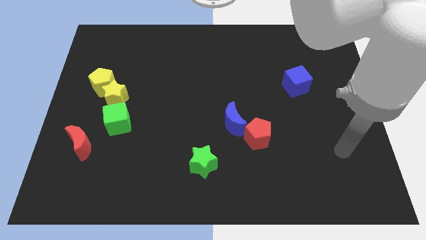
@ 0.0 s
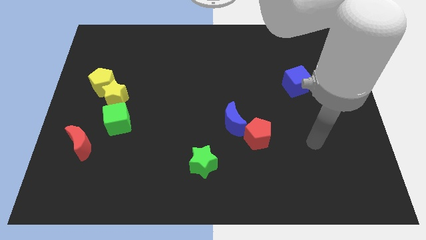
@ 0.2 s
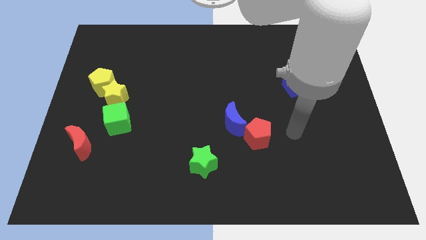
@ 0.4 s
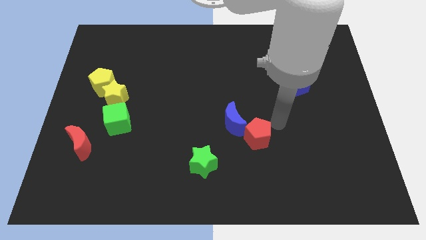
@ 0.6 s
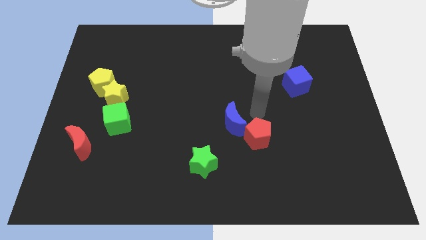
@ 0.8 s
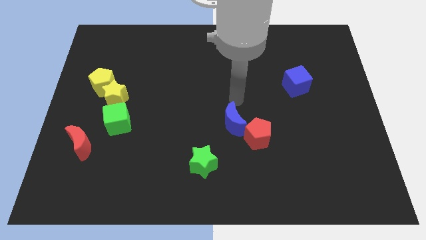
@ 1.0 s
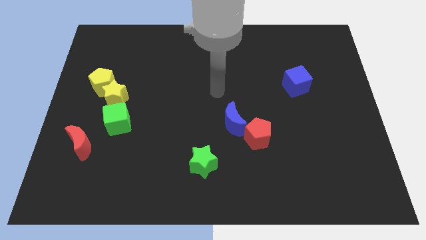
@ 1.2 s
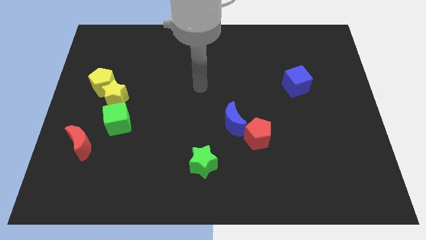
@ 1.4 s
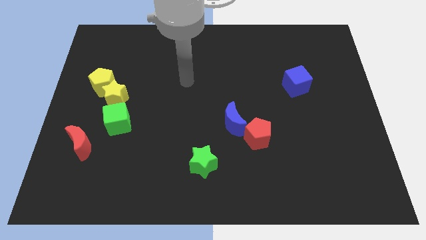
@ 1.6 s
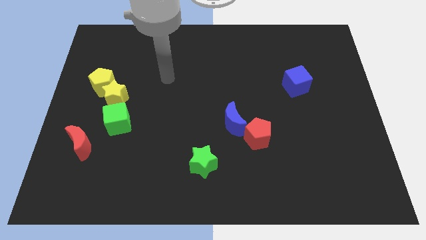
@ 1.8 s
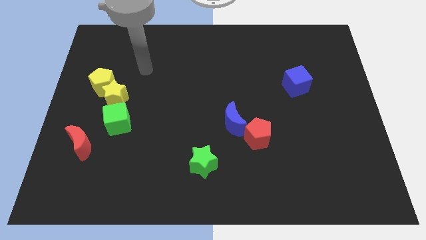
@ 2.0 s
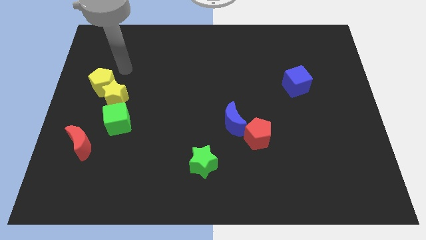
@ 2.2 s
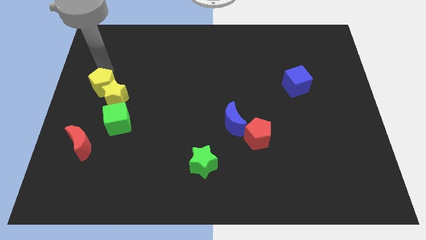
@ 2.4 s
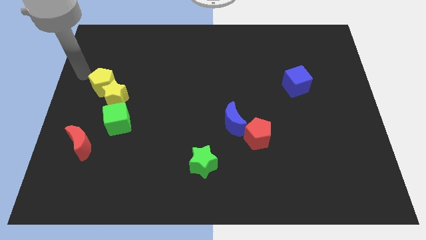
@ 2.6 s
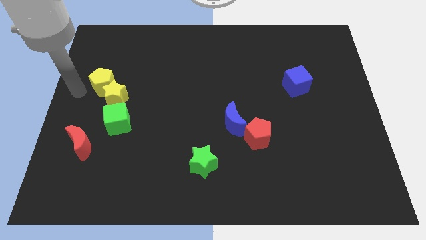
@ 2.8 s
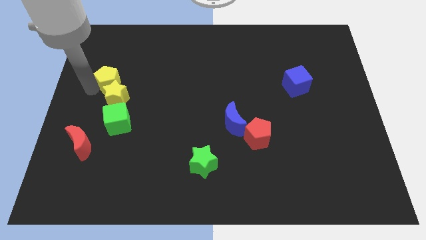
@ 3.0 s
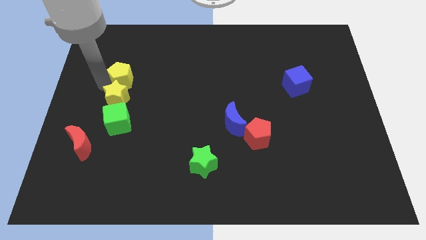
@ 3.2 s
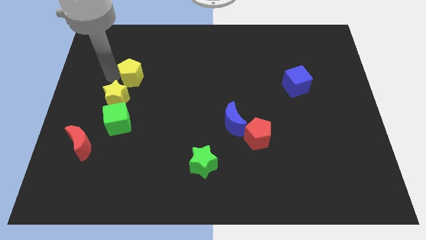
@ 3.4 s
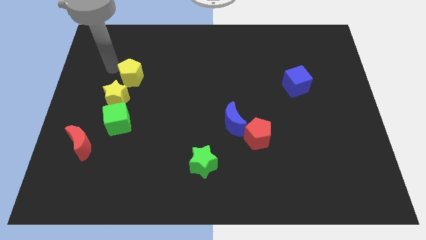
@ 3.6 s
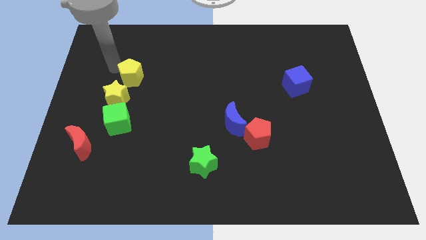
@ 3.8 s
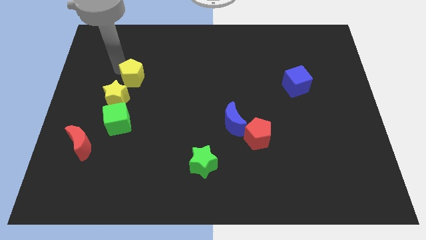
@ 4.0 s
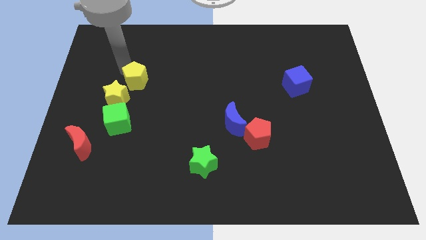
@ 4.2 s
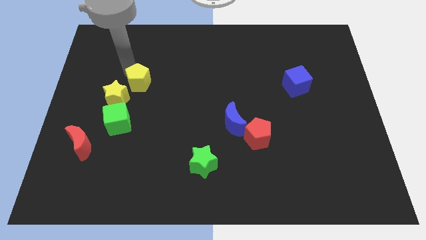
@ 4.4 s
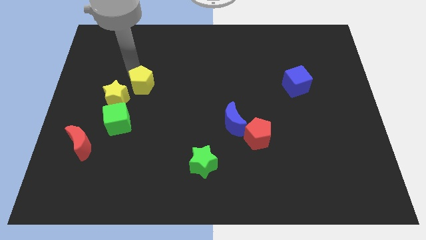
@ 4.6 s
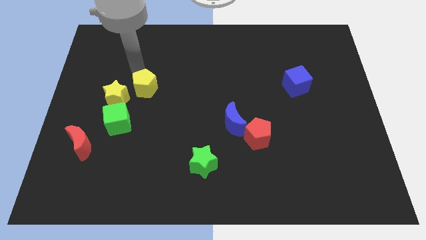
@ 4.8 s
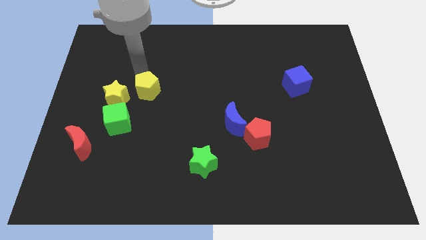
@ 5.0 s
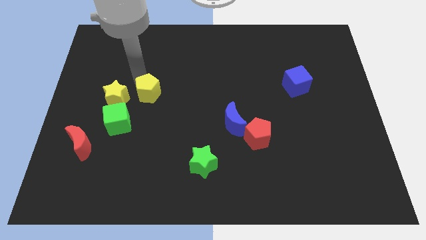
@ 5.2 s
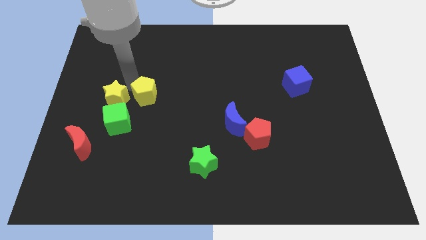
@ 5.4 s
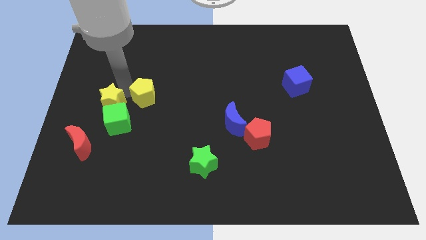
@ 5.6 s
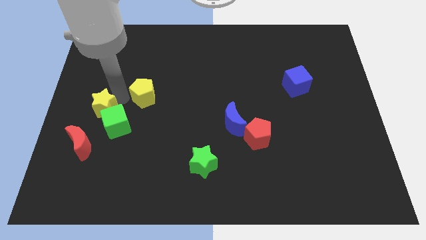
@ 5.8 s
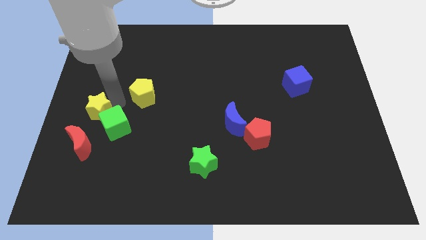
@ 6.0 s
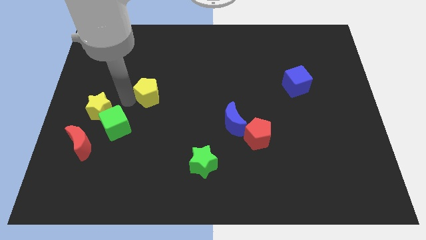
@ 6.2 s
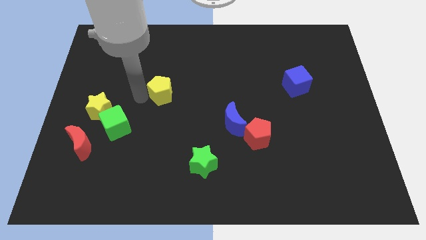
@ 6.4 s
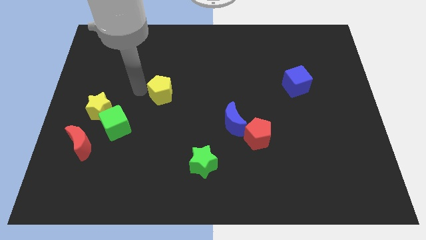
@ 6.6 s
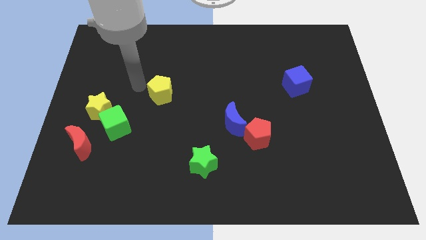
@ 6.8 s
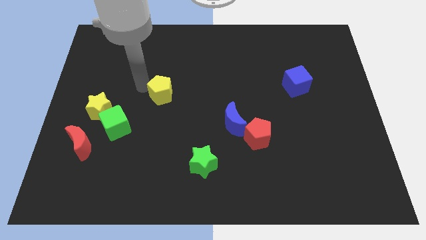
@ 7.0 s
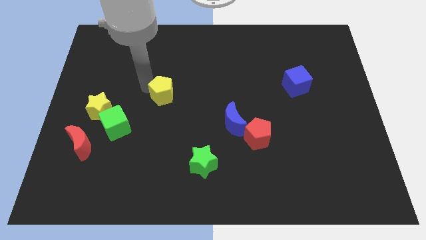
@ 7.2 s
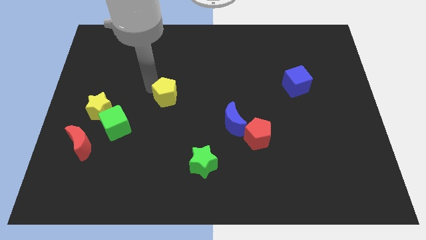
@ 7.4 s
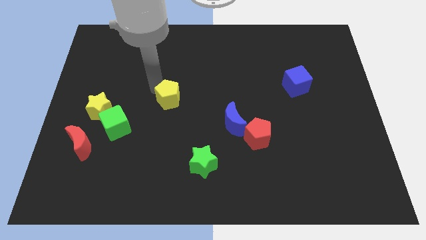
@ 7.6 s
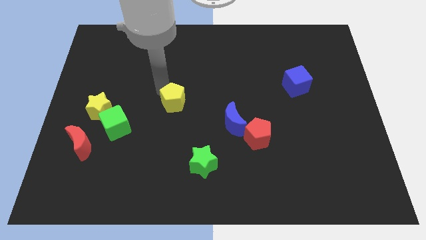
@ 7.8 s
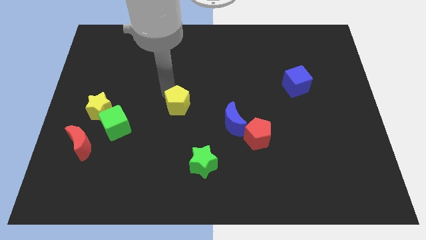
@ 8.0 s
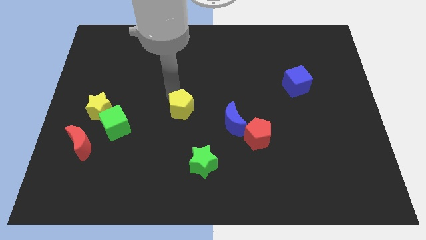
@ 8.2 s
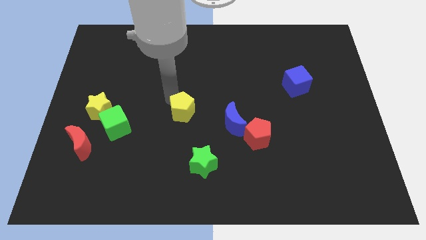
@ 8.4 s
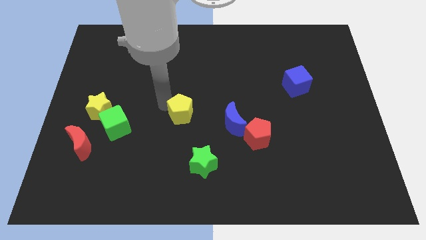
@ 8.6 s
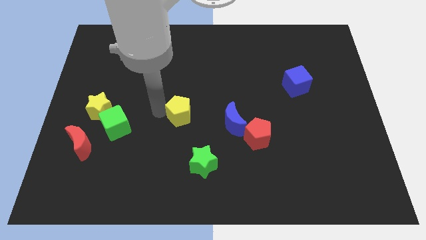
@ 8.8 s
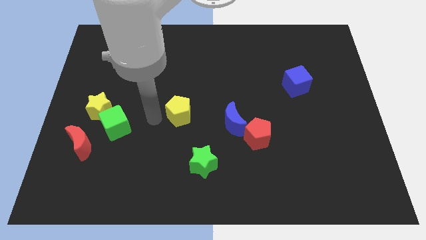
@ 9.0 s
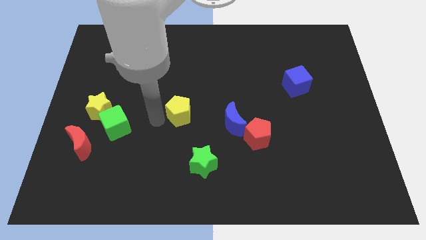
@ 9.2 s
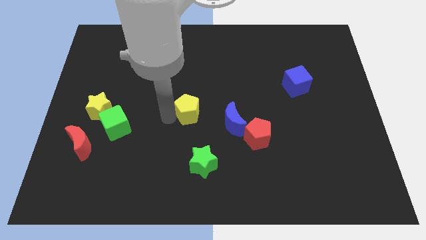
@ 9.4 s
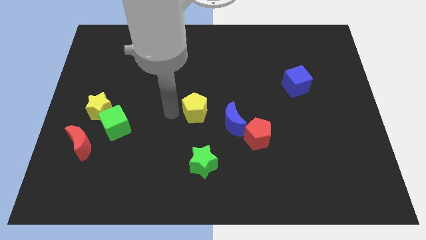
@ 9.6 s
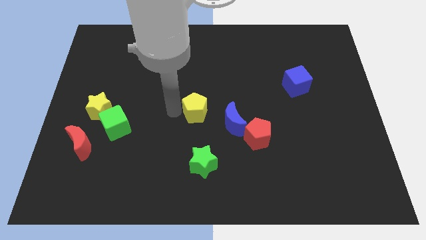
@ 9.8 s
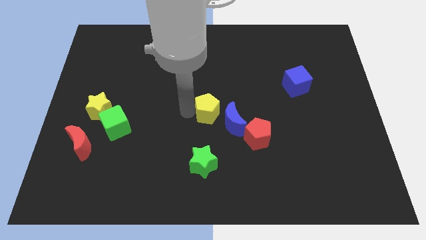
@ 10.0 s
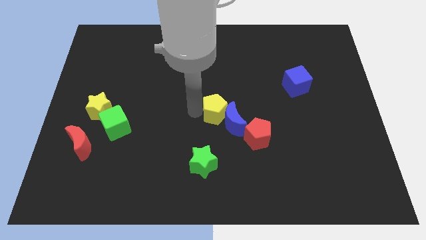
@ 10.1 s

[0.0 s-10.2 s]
slide the yellow pentagon towards the blue moon

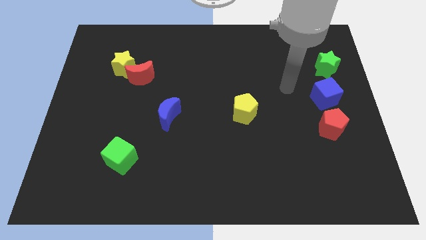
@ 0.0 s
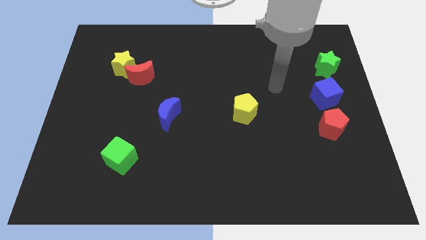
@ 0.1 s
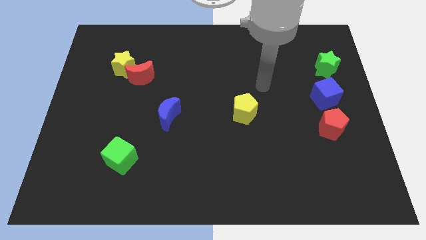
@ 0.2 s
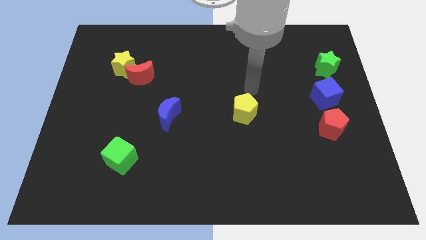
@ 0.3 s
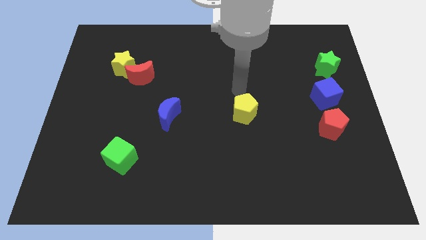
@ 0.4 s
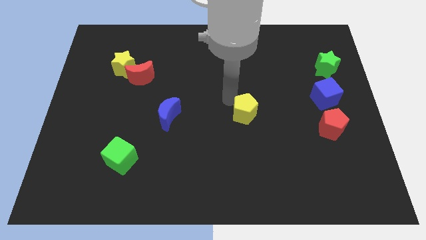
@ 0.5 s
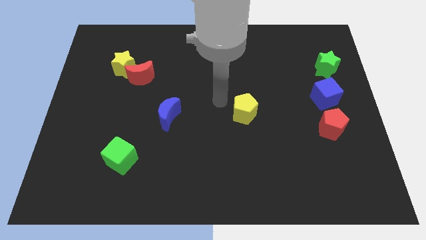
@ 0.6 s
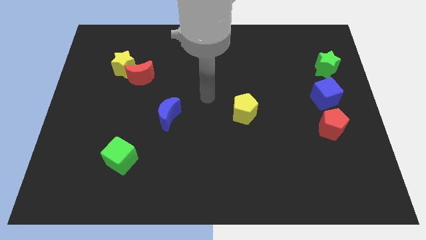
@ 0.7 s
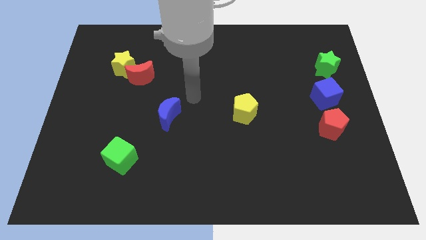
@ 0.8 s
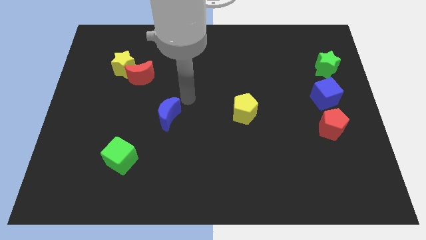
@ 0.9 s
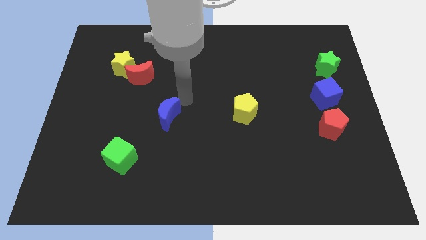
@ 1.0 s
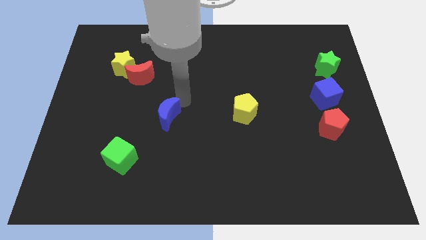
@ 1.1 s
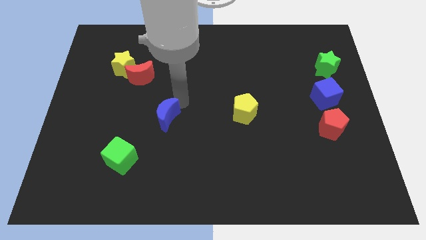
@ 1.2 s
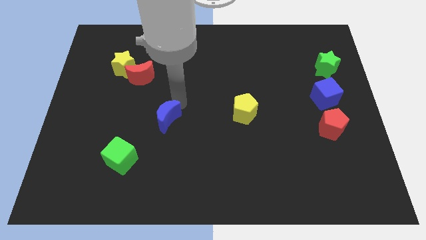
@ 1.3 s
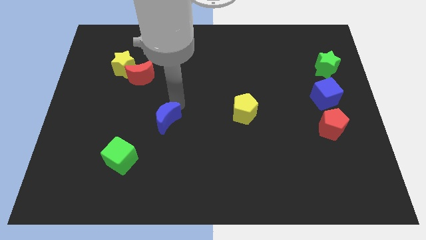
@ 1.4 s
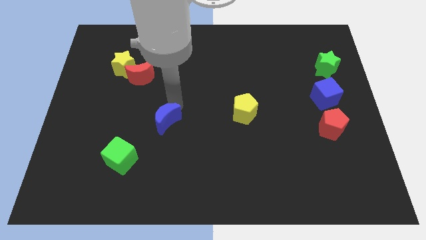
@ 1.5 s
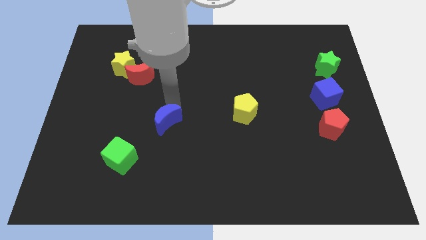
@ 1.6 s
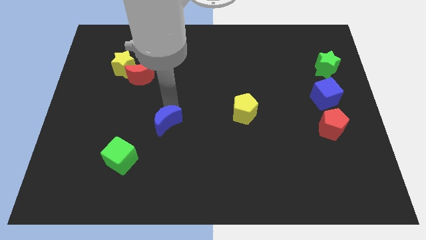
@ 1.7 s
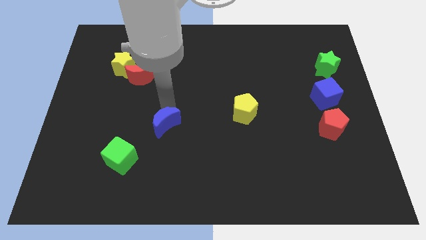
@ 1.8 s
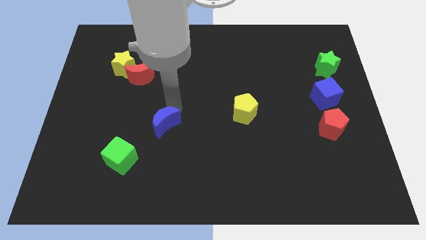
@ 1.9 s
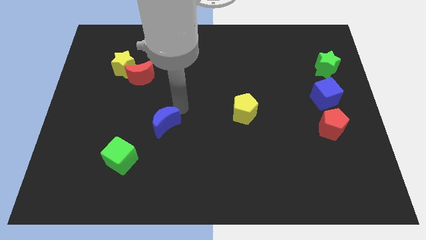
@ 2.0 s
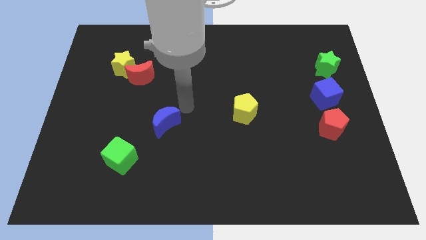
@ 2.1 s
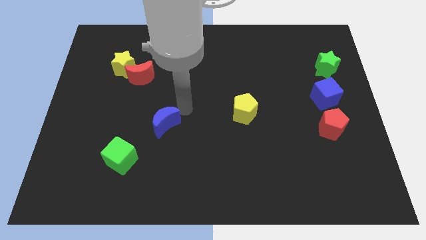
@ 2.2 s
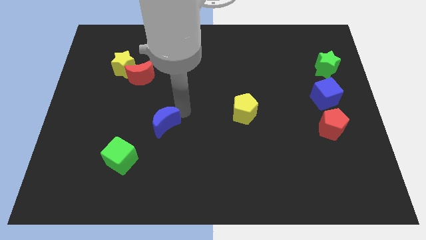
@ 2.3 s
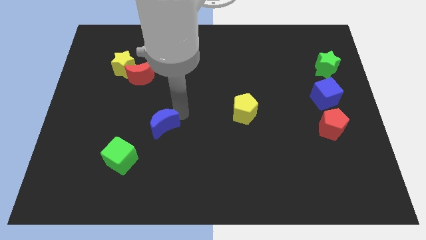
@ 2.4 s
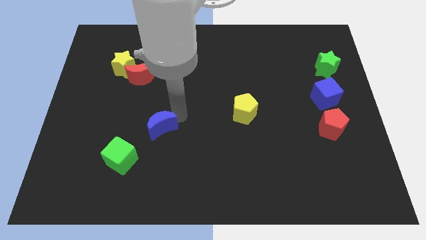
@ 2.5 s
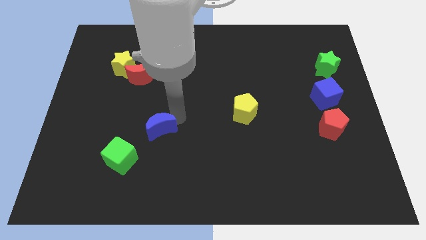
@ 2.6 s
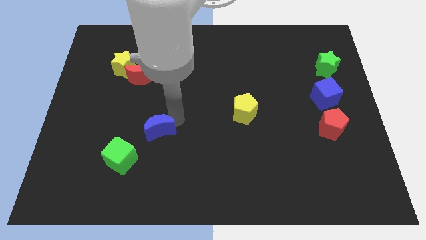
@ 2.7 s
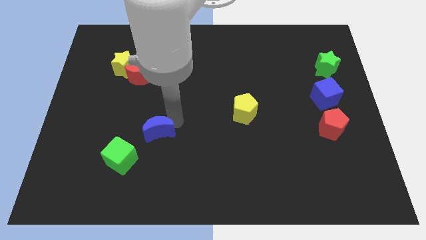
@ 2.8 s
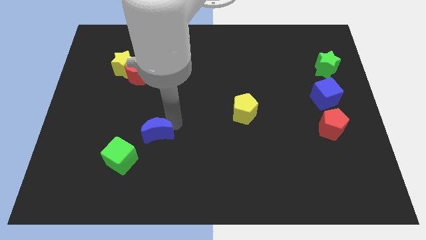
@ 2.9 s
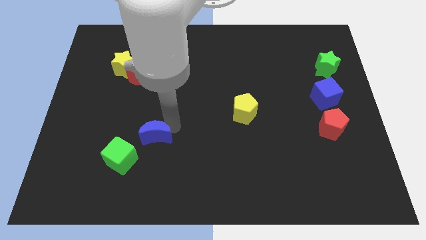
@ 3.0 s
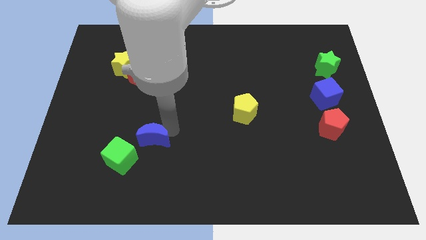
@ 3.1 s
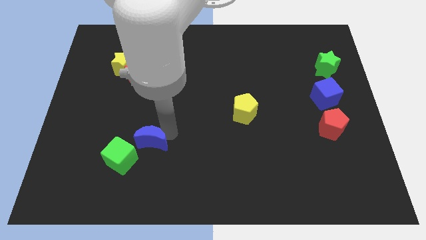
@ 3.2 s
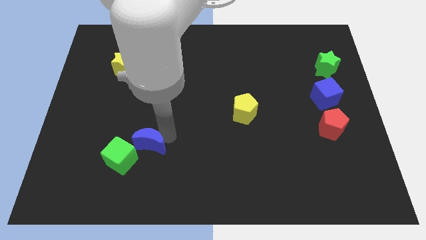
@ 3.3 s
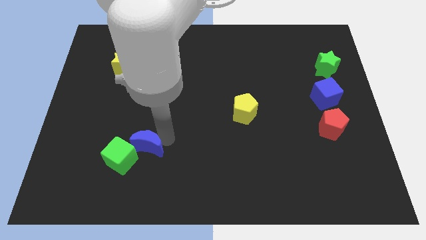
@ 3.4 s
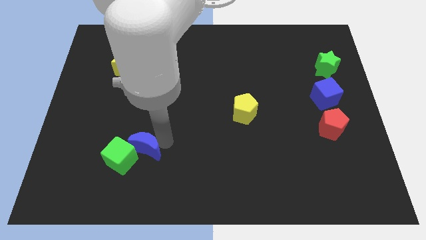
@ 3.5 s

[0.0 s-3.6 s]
put the blue moon next to the green cube
